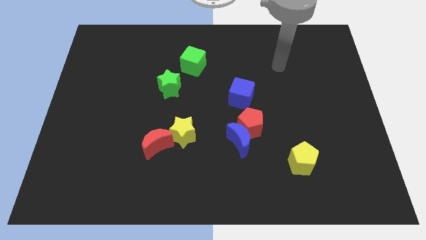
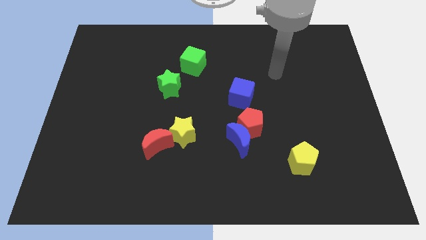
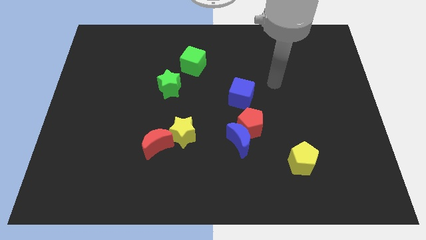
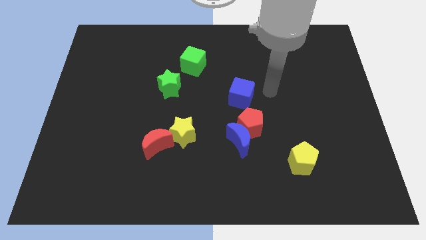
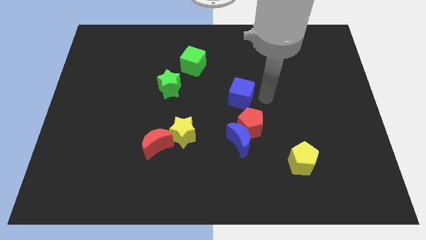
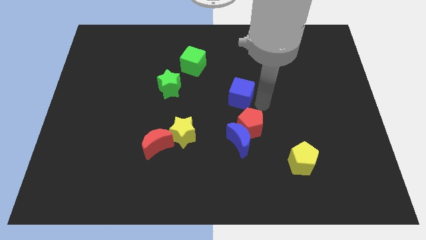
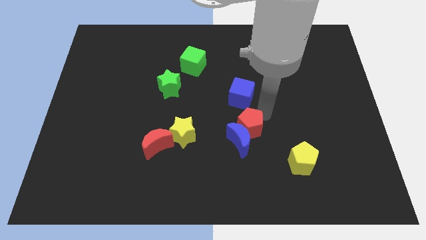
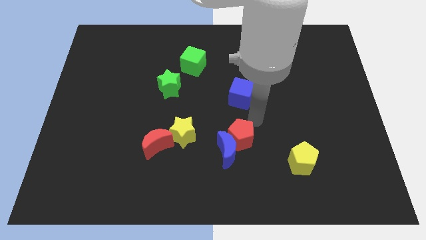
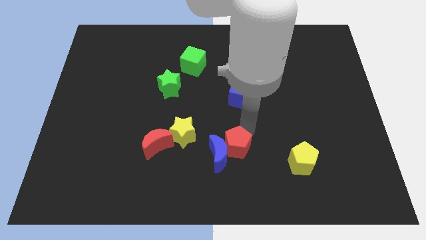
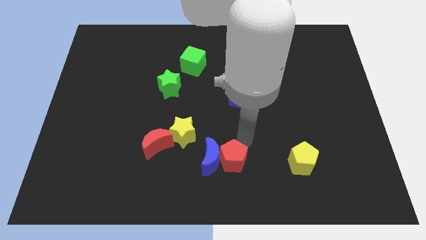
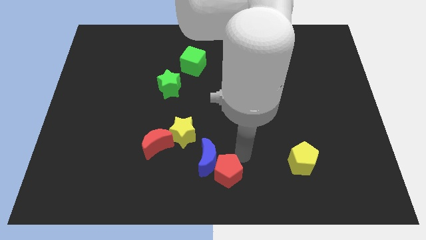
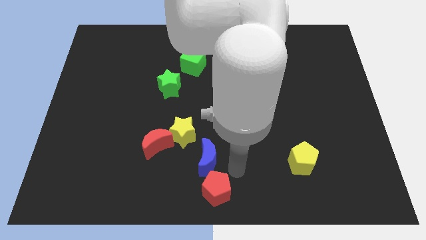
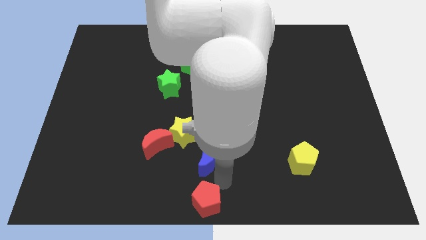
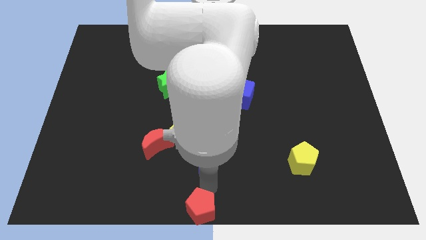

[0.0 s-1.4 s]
separate the blue moon from the red pentagon

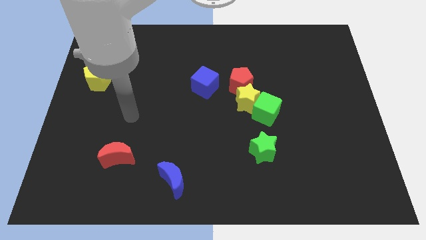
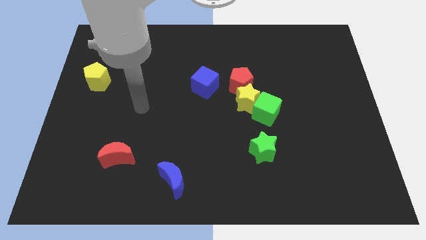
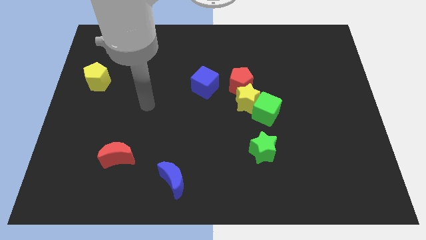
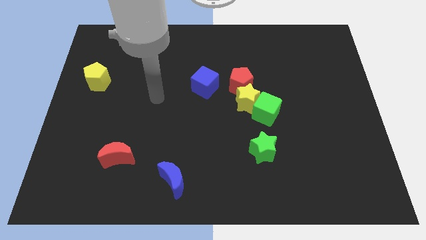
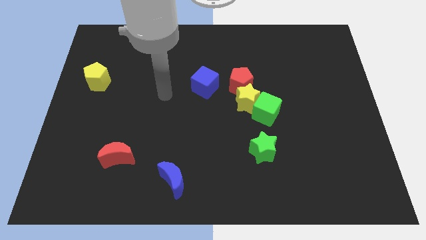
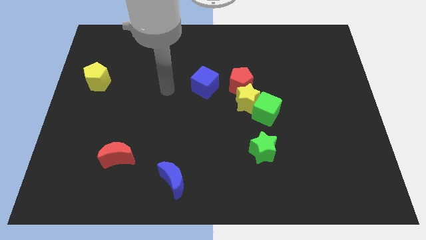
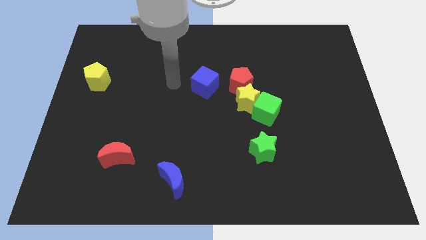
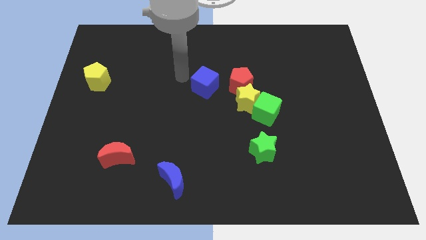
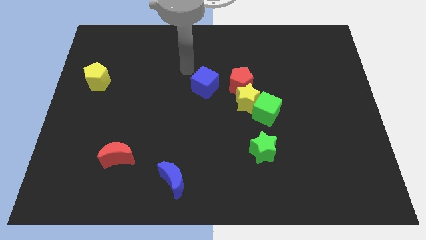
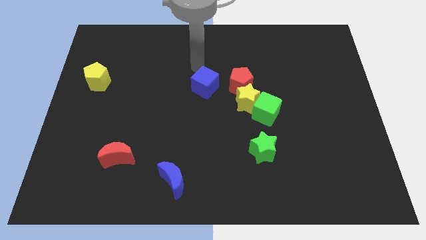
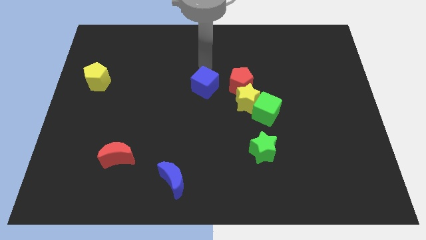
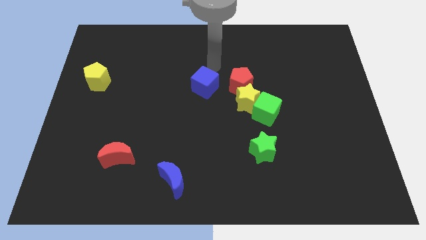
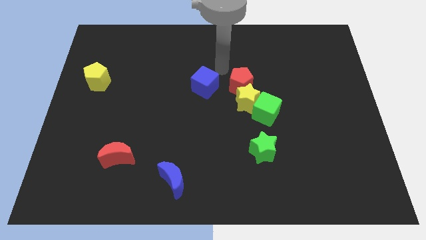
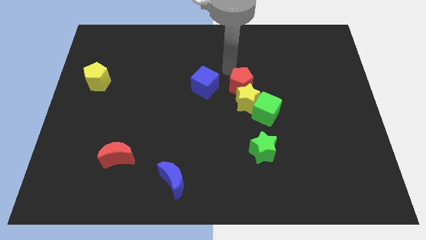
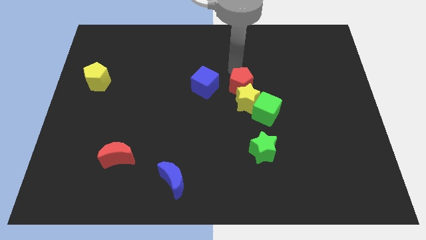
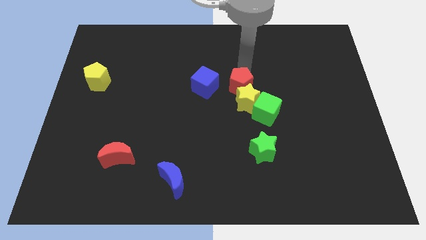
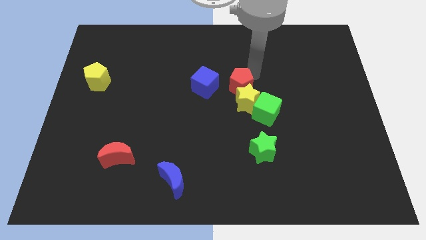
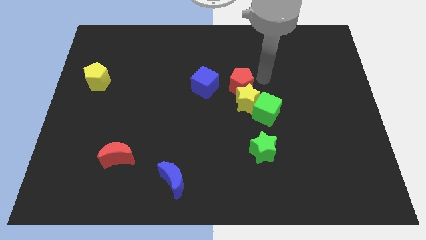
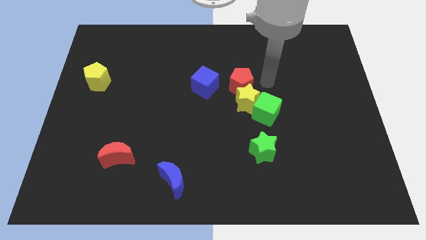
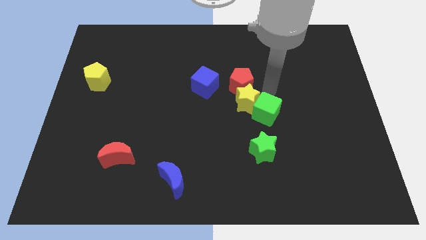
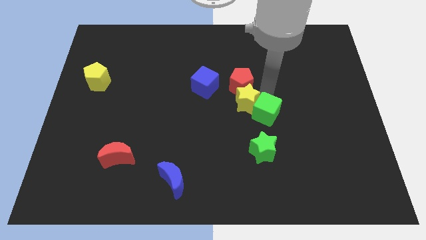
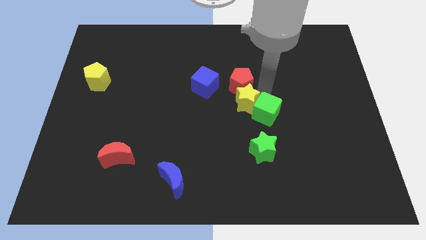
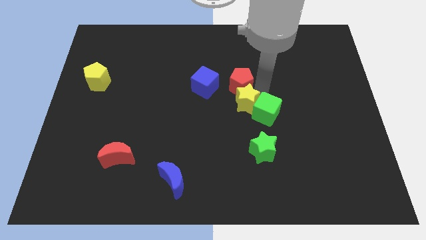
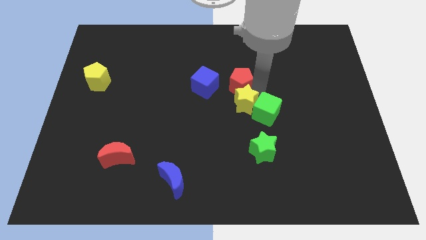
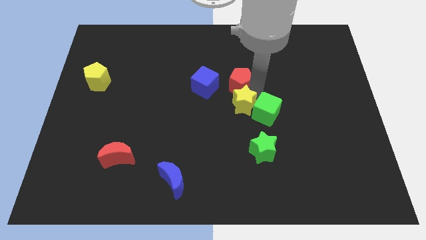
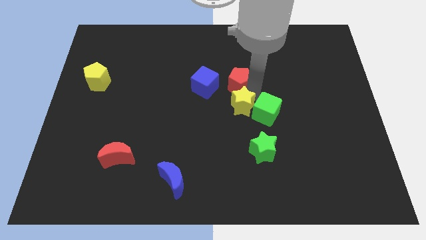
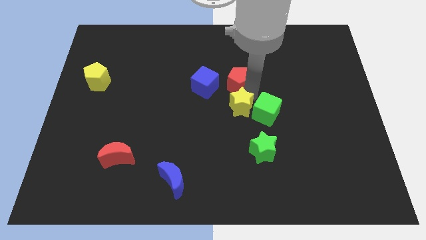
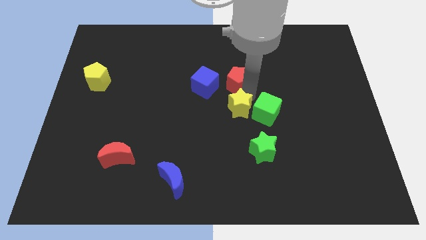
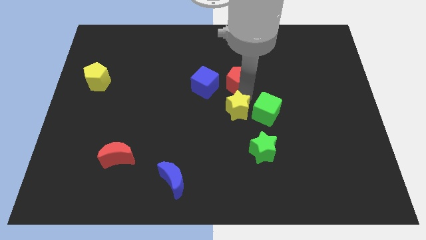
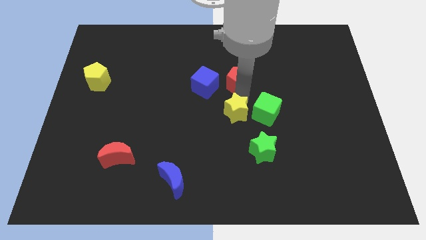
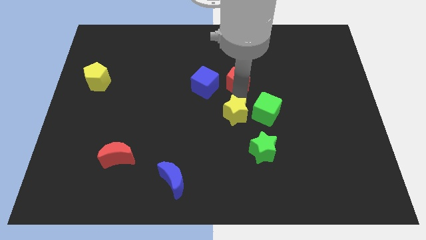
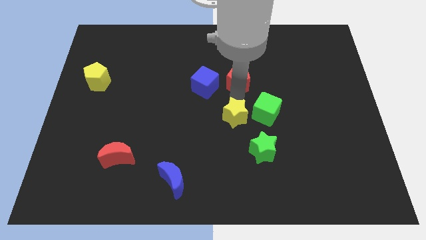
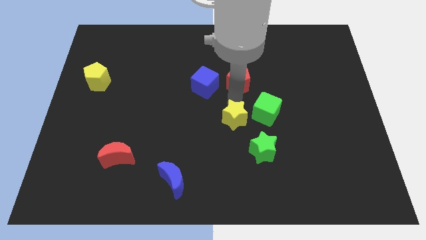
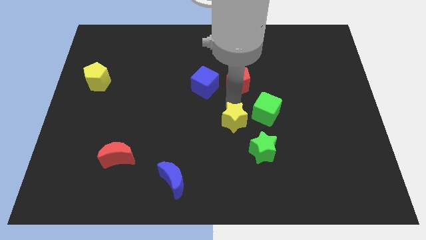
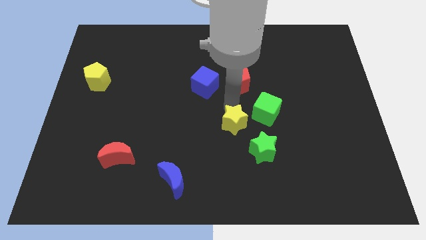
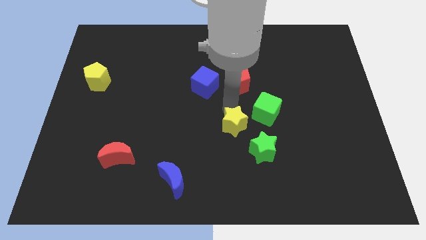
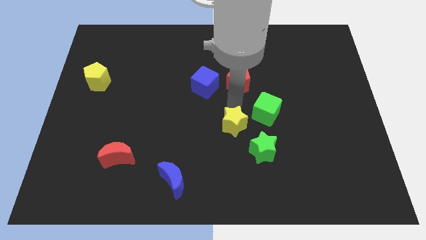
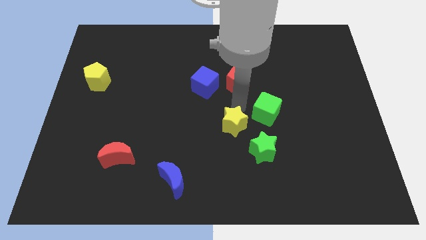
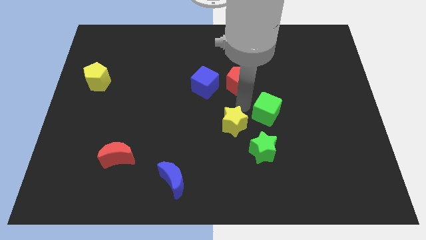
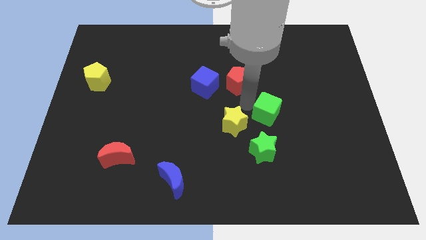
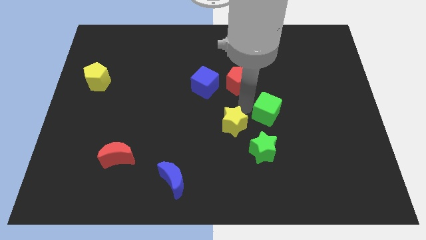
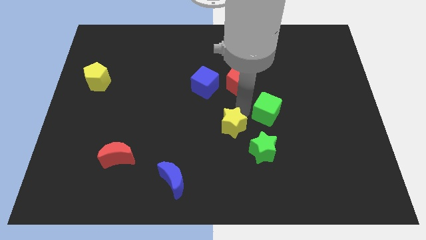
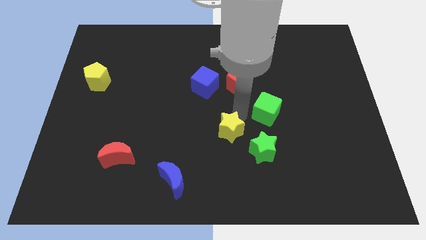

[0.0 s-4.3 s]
move the yellow star away from the green cube and red pentagon

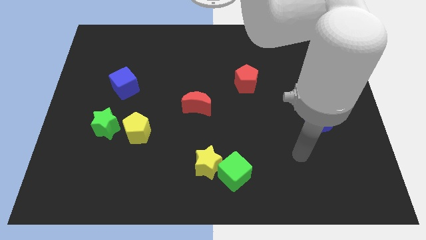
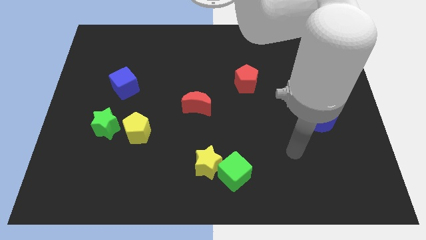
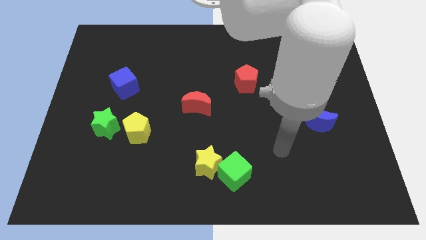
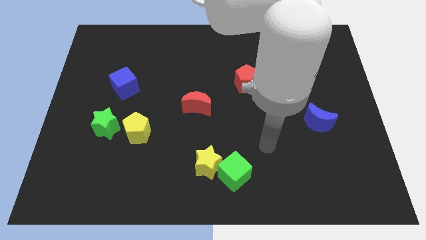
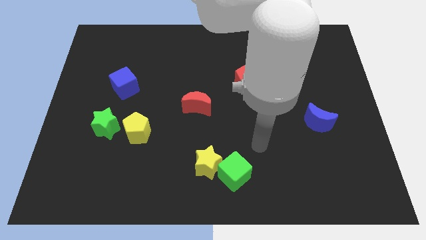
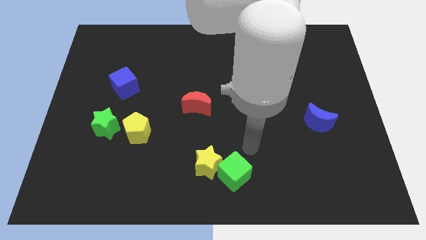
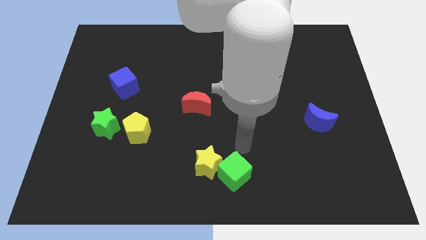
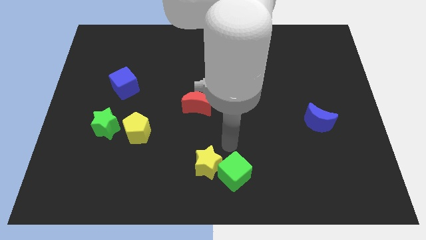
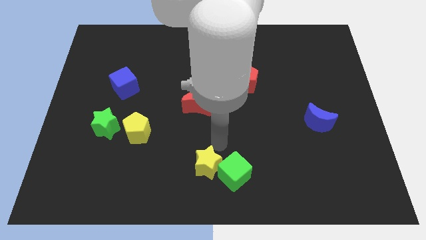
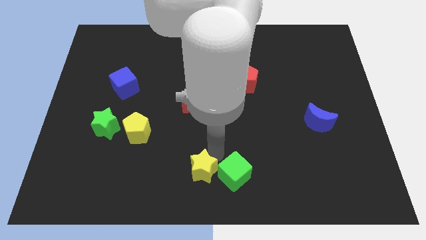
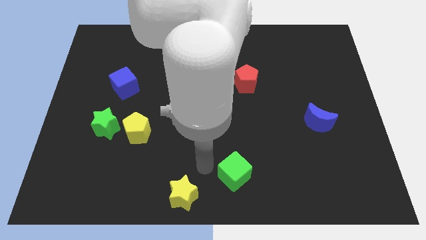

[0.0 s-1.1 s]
move the green cube away from the yellow star

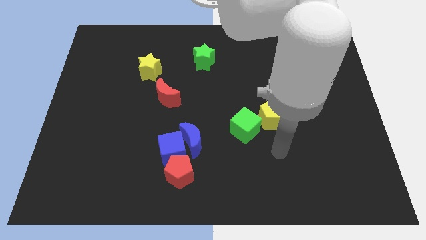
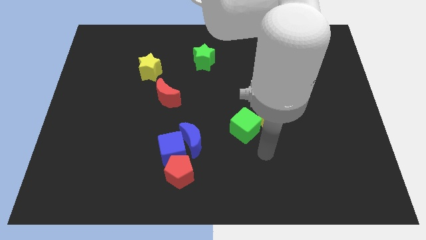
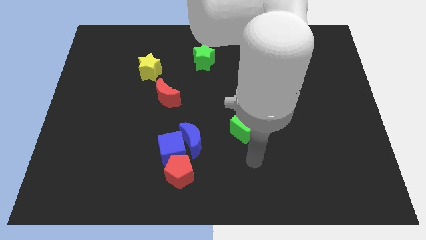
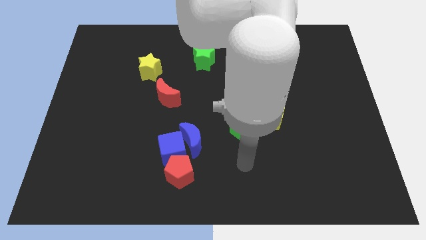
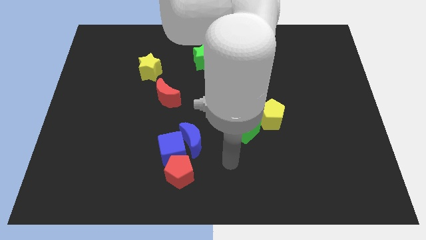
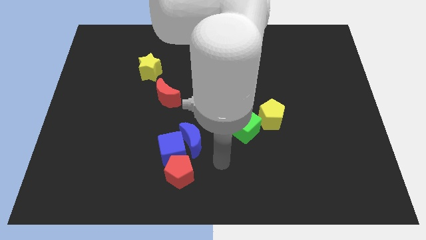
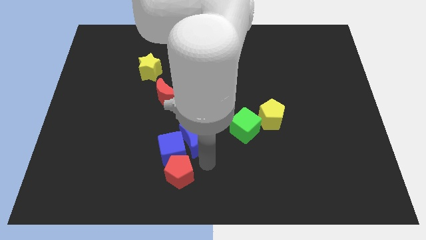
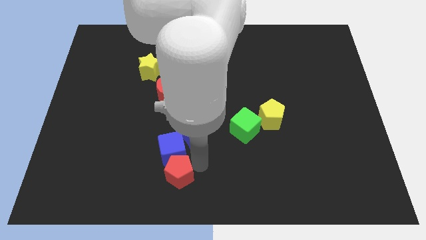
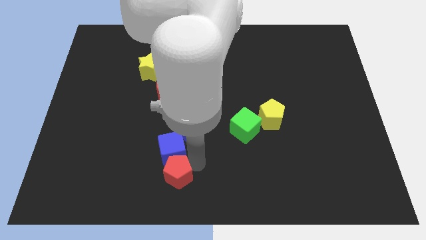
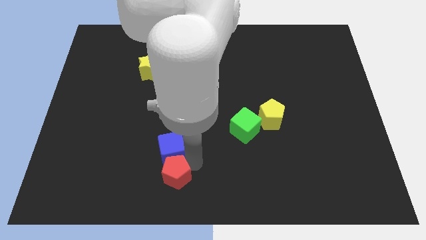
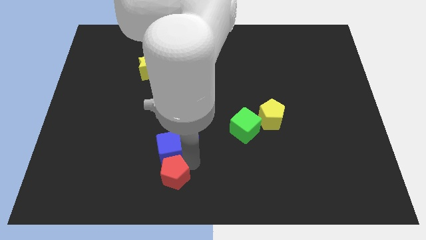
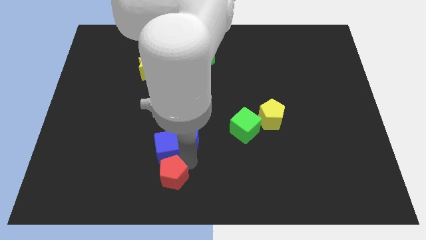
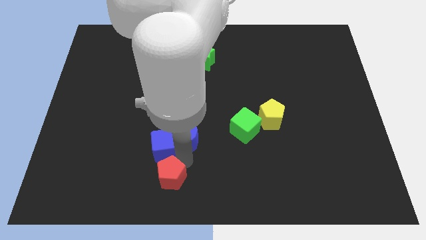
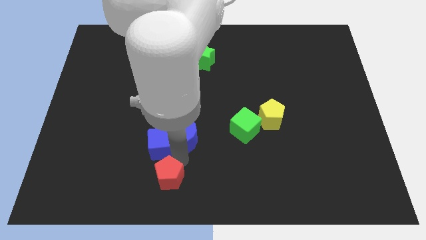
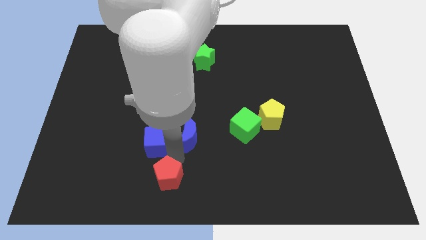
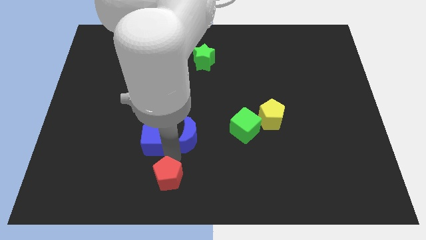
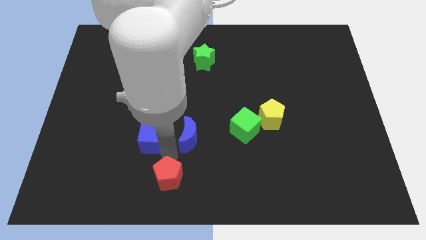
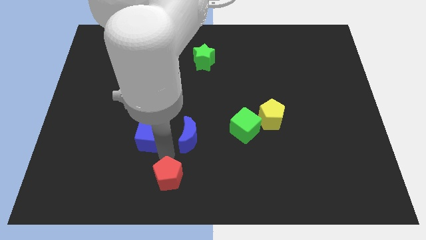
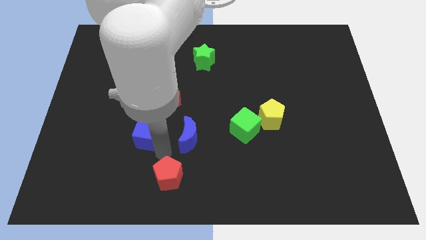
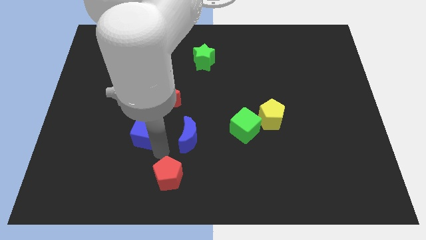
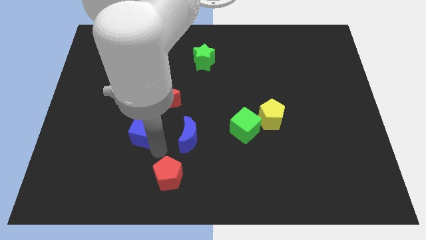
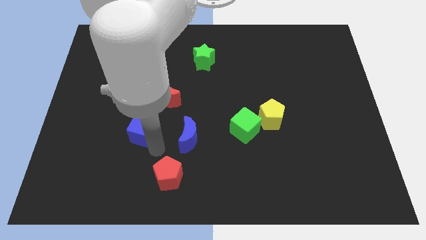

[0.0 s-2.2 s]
pull the blue cube apart from the blue moon and red pentagon

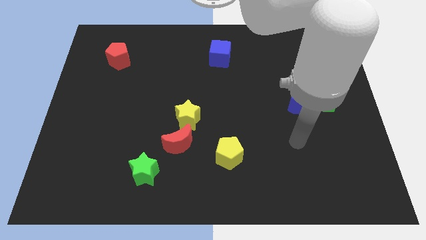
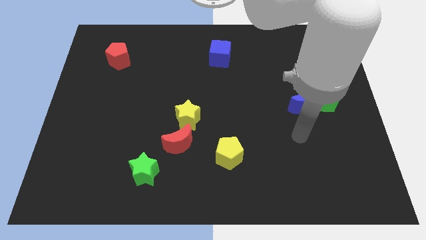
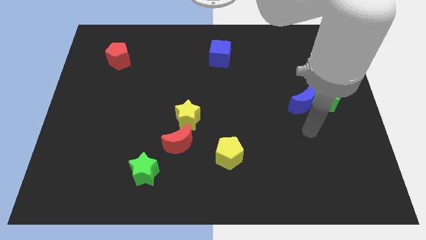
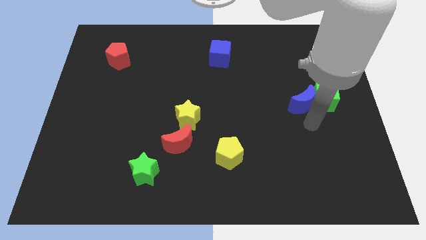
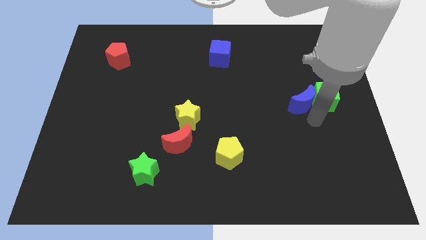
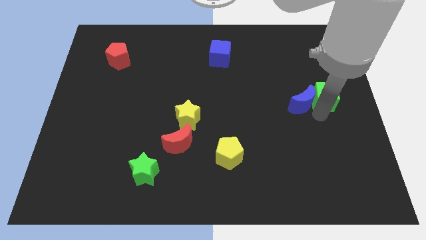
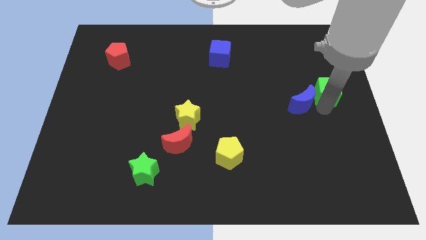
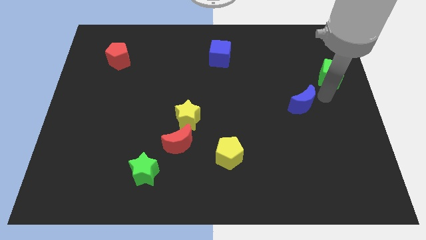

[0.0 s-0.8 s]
pull the blue moon apart from the green cube
